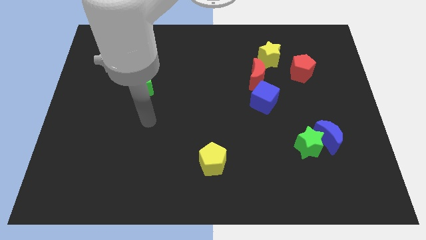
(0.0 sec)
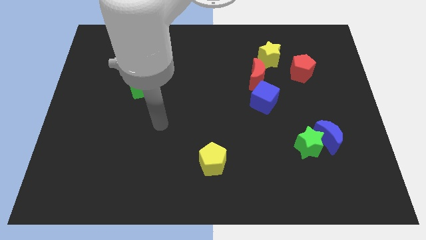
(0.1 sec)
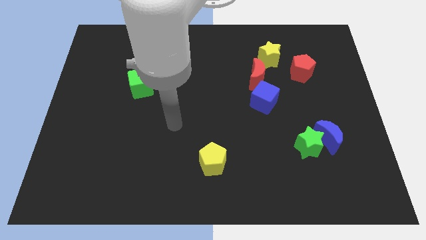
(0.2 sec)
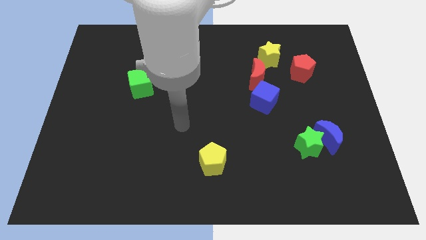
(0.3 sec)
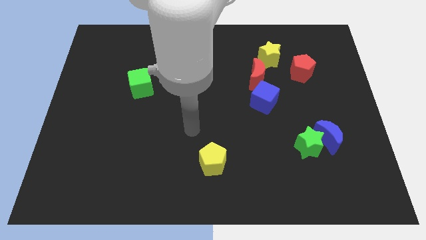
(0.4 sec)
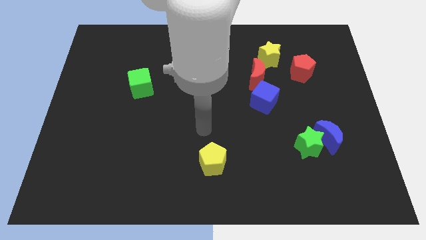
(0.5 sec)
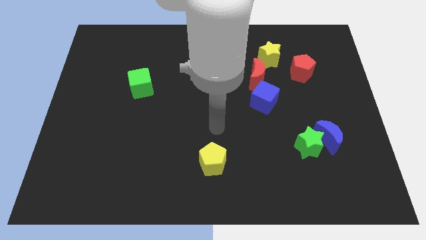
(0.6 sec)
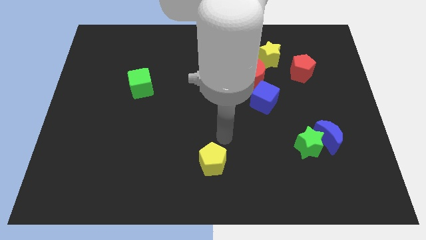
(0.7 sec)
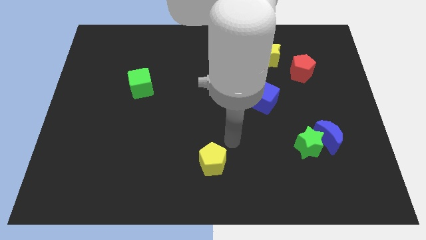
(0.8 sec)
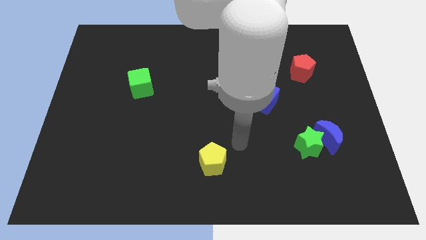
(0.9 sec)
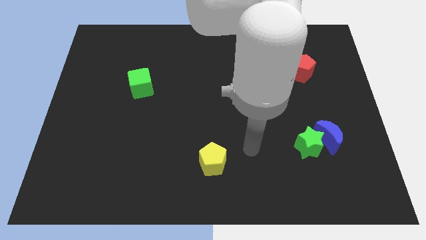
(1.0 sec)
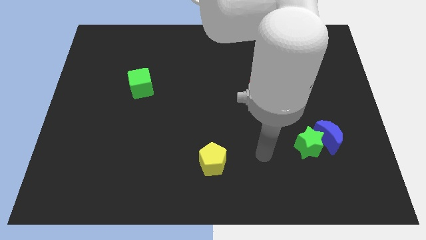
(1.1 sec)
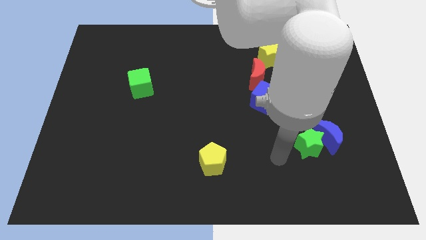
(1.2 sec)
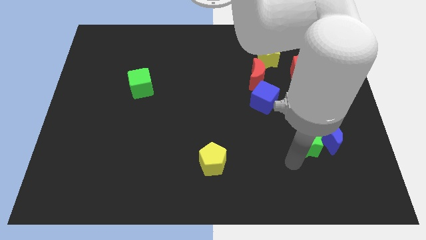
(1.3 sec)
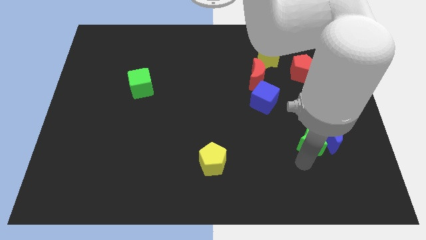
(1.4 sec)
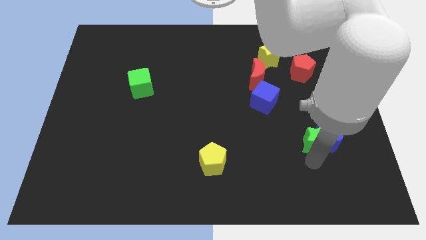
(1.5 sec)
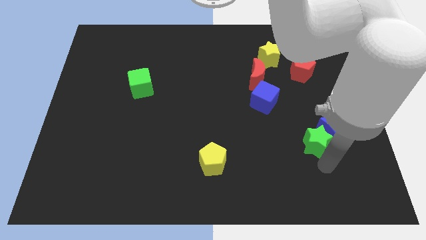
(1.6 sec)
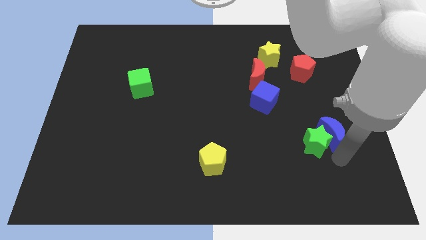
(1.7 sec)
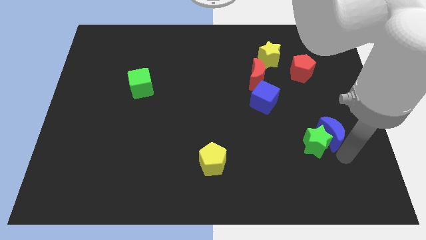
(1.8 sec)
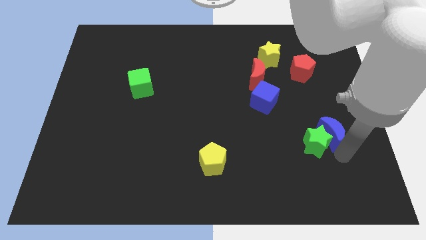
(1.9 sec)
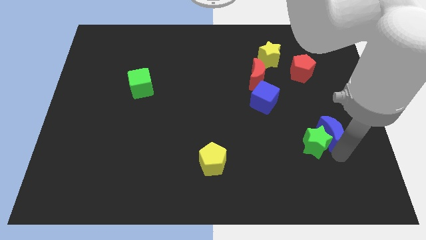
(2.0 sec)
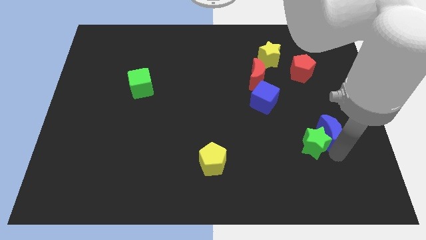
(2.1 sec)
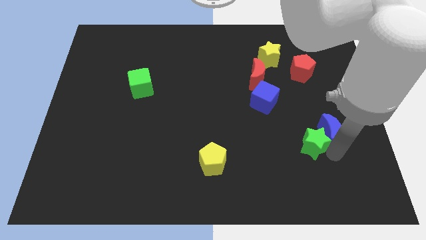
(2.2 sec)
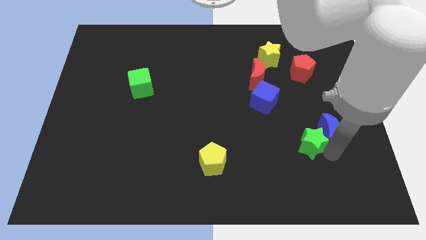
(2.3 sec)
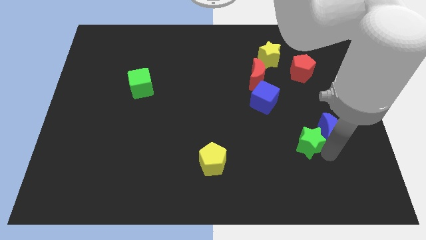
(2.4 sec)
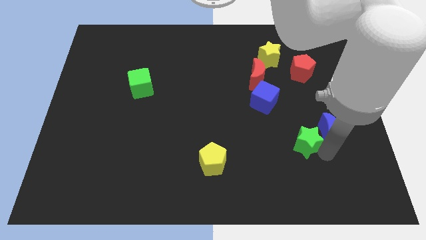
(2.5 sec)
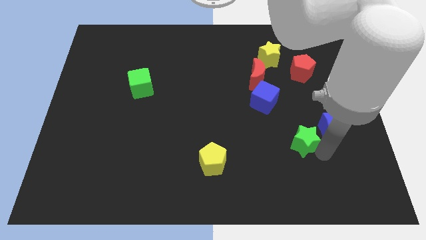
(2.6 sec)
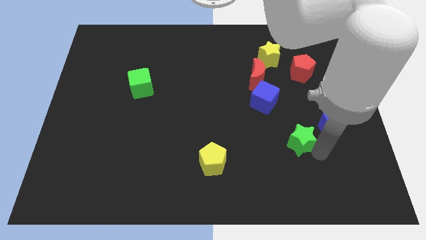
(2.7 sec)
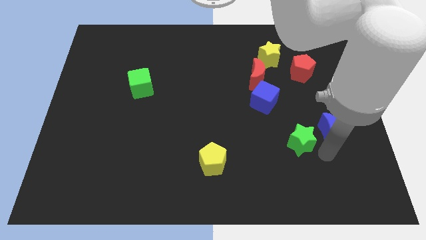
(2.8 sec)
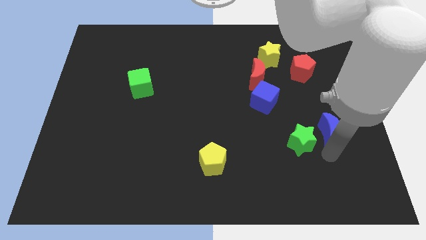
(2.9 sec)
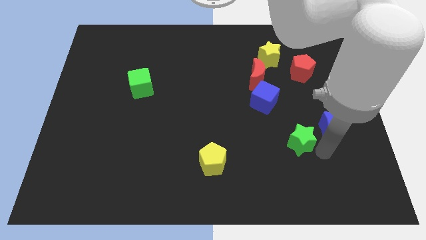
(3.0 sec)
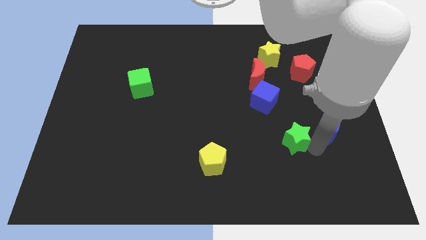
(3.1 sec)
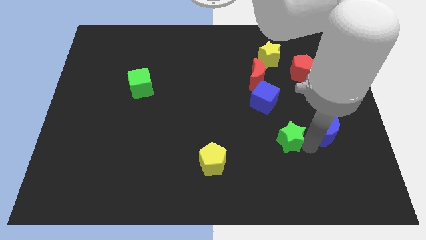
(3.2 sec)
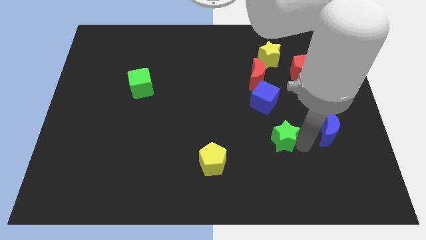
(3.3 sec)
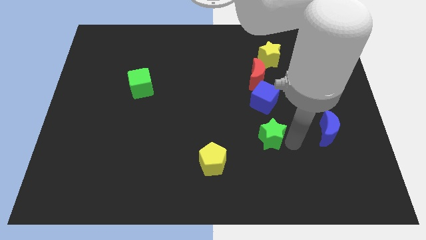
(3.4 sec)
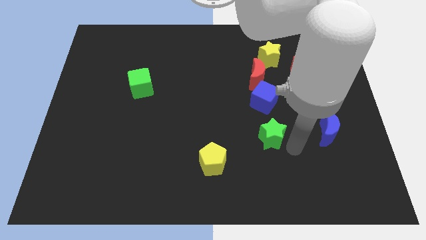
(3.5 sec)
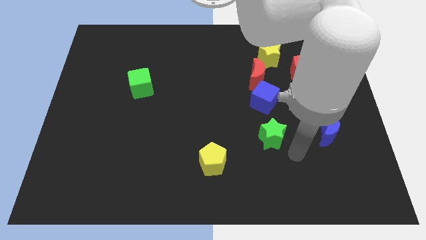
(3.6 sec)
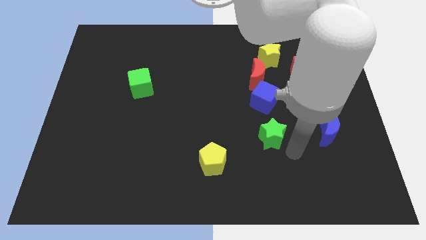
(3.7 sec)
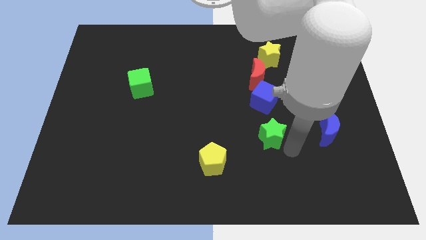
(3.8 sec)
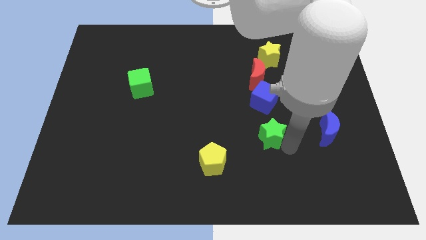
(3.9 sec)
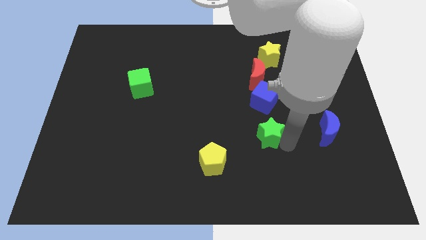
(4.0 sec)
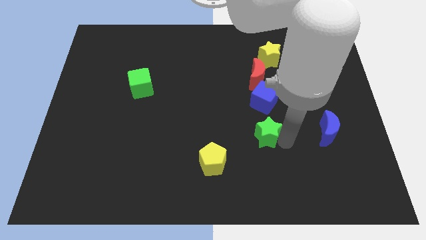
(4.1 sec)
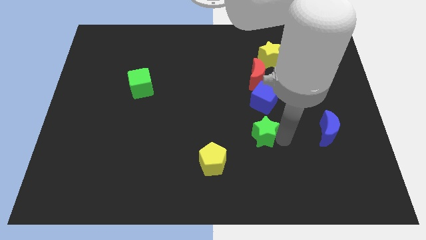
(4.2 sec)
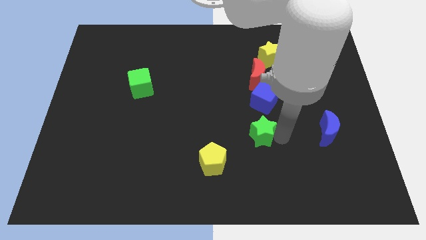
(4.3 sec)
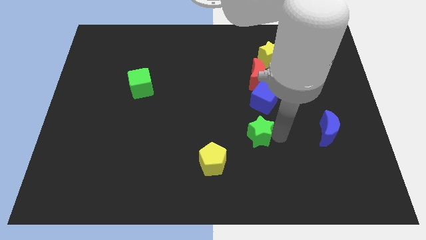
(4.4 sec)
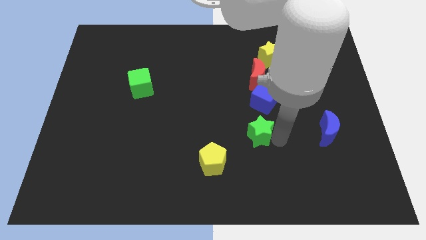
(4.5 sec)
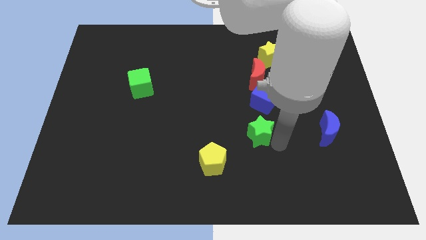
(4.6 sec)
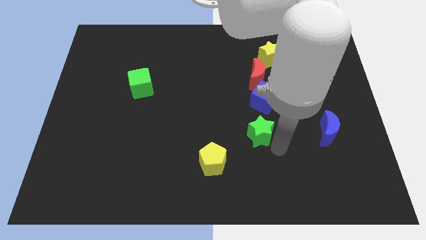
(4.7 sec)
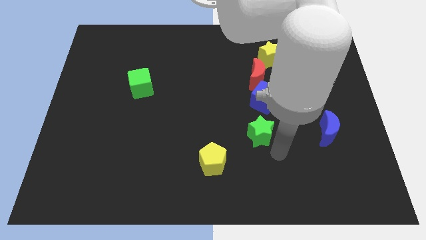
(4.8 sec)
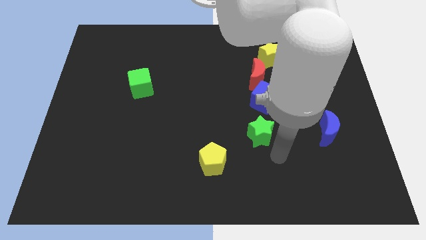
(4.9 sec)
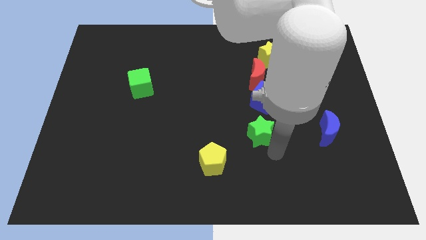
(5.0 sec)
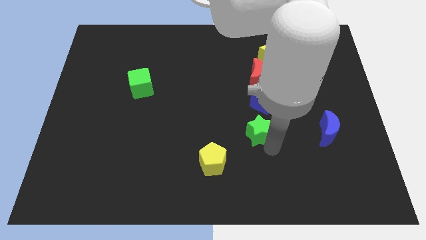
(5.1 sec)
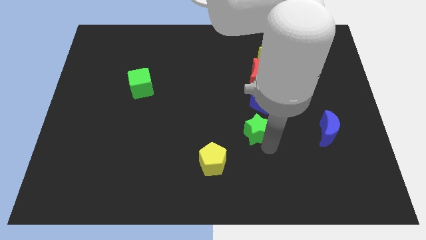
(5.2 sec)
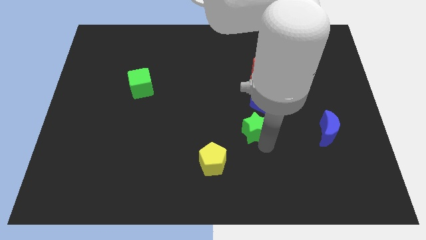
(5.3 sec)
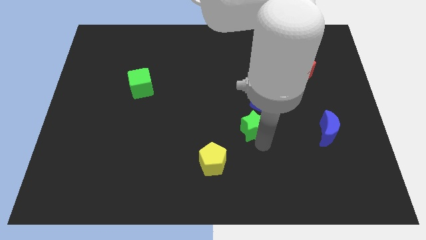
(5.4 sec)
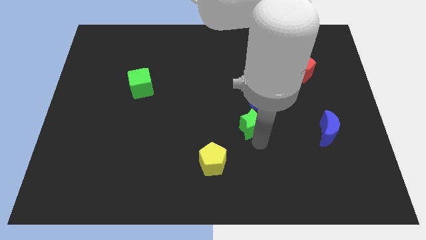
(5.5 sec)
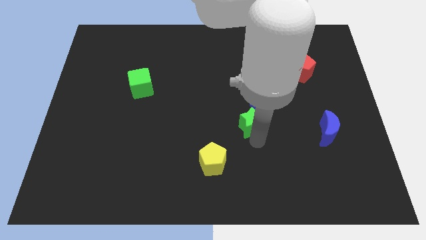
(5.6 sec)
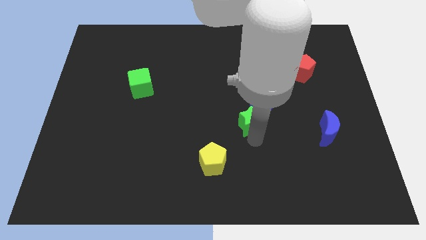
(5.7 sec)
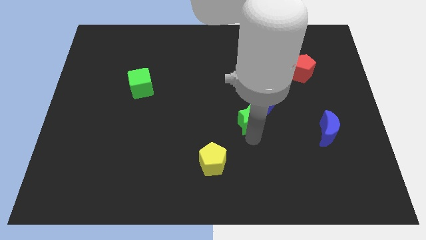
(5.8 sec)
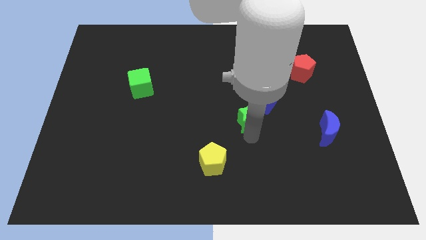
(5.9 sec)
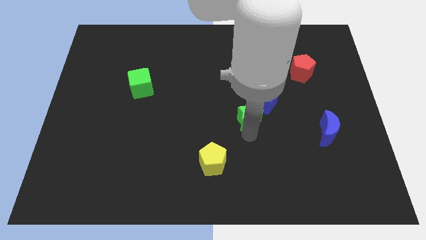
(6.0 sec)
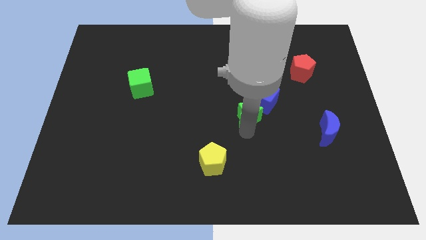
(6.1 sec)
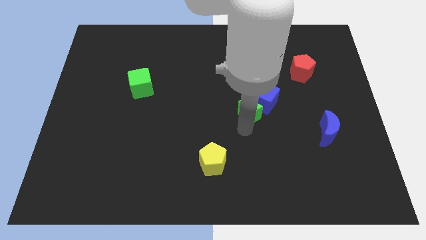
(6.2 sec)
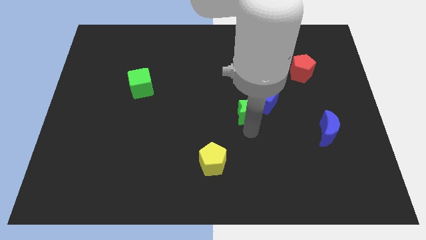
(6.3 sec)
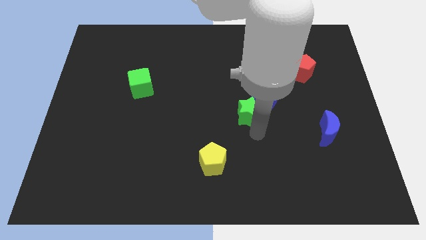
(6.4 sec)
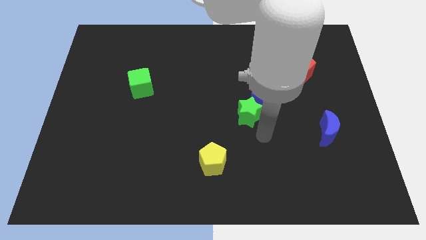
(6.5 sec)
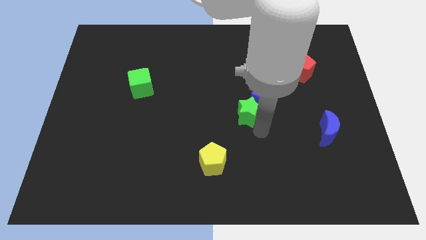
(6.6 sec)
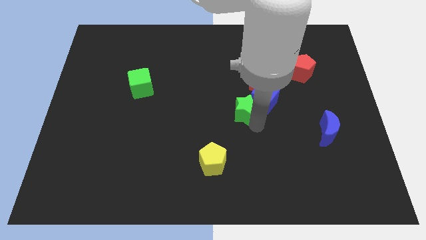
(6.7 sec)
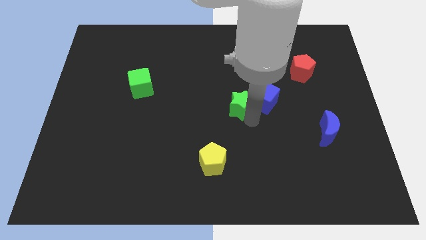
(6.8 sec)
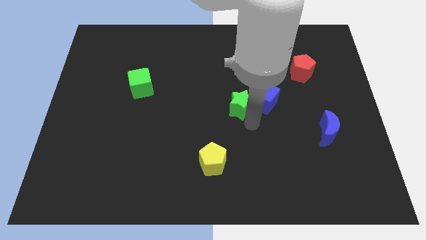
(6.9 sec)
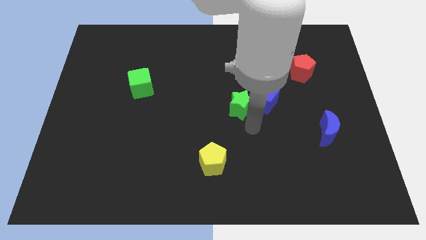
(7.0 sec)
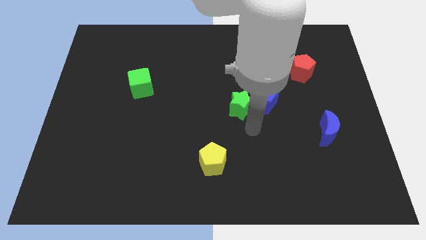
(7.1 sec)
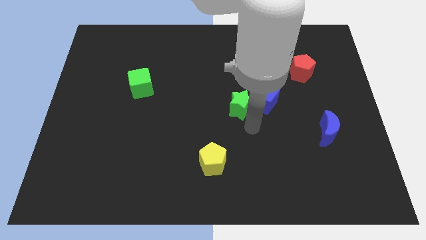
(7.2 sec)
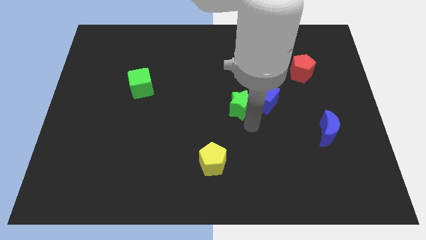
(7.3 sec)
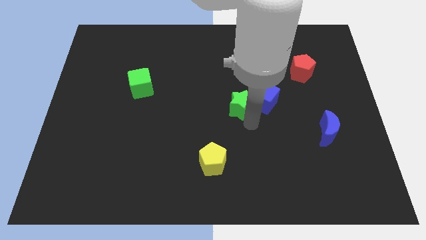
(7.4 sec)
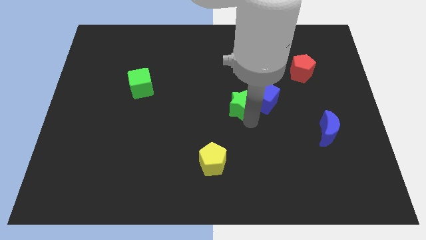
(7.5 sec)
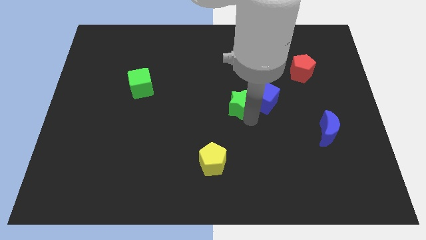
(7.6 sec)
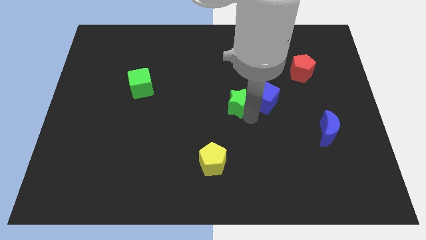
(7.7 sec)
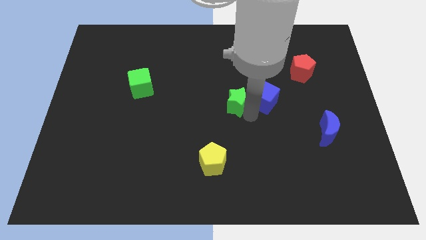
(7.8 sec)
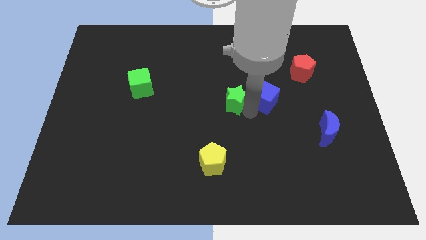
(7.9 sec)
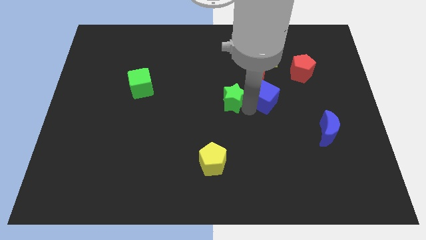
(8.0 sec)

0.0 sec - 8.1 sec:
move the green star upwards and left

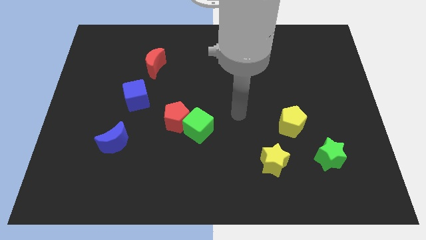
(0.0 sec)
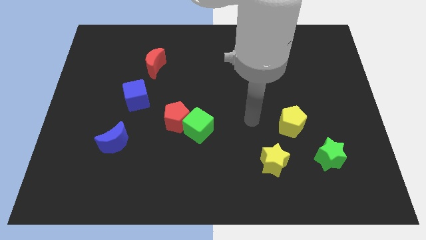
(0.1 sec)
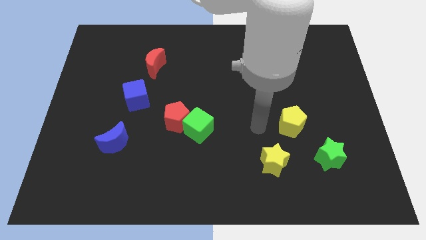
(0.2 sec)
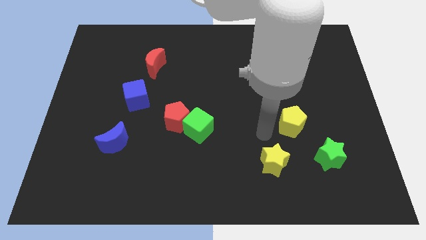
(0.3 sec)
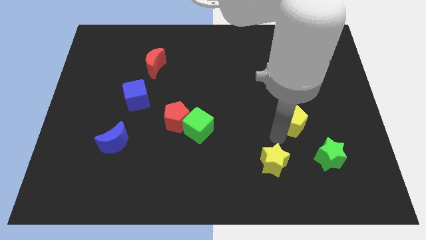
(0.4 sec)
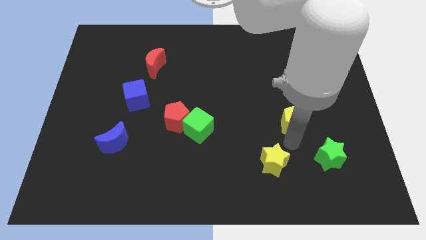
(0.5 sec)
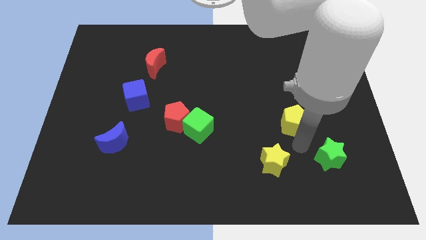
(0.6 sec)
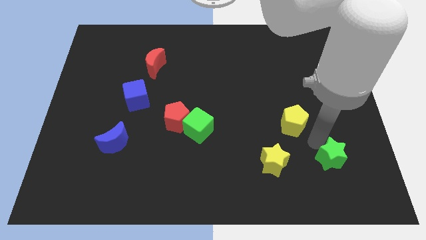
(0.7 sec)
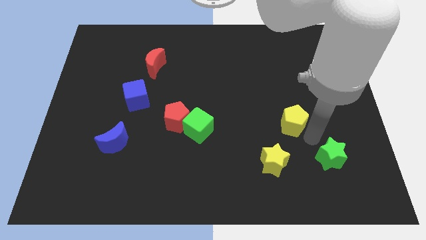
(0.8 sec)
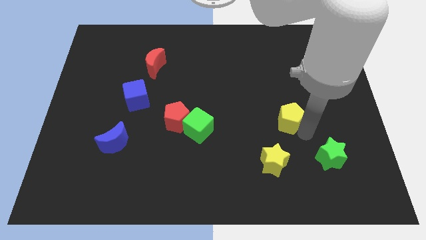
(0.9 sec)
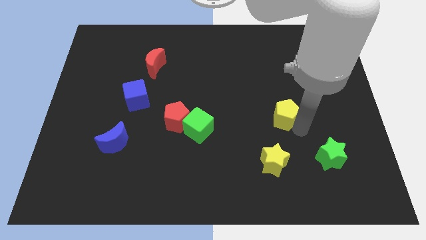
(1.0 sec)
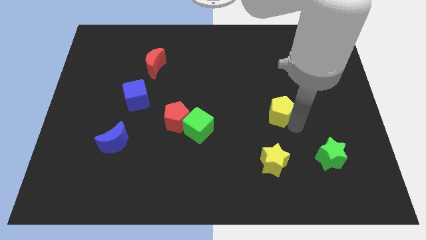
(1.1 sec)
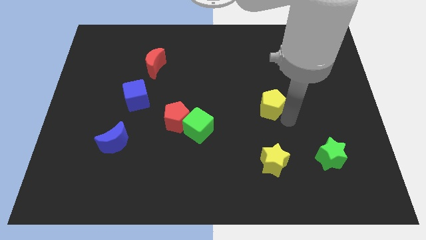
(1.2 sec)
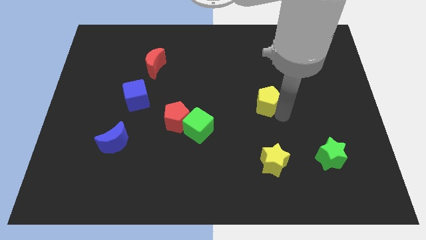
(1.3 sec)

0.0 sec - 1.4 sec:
slide the yellow pentagon upwards and then to the left a little
